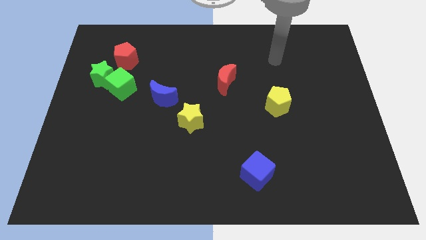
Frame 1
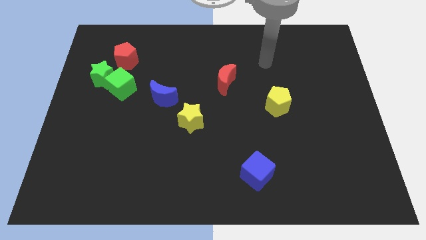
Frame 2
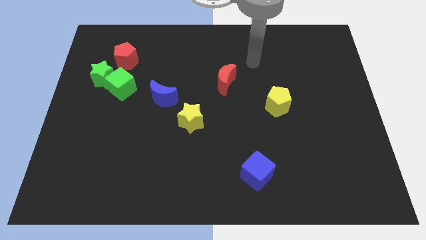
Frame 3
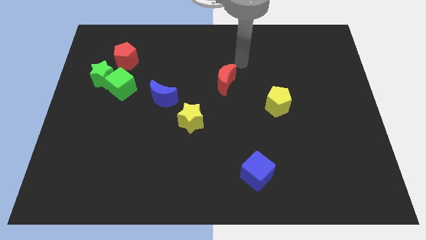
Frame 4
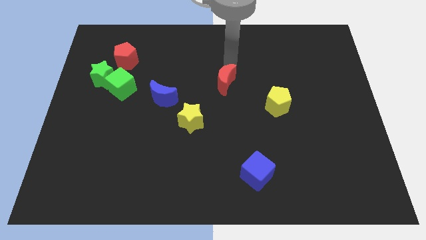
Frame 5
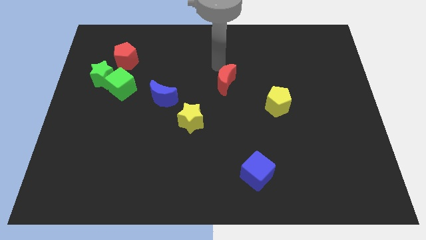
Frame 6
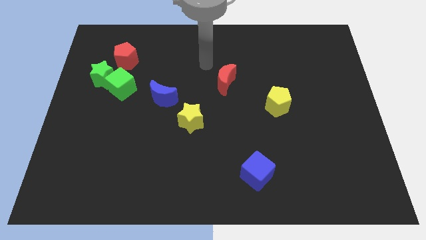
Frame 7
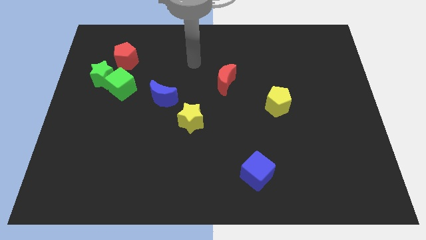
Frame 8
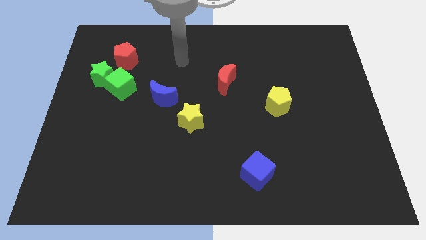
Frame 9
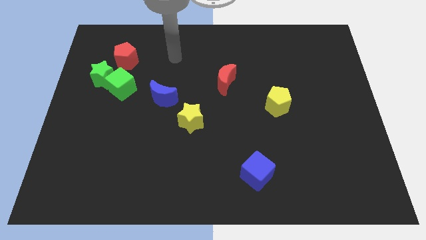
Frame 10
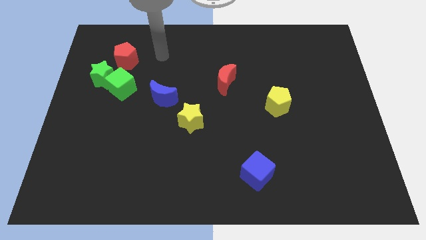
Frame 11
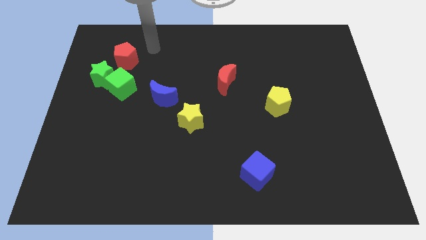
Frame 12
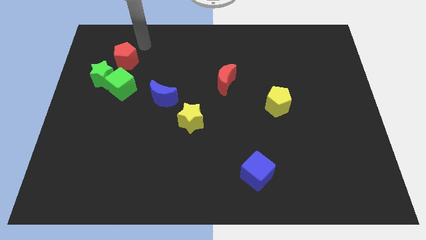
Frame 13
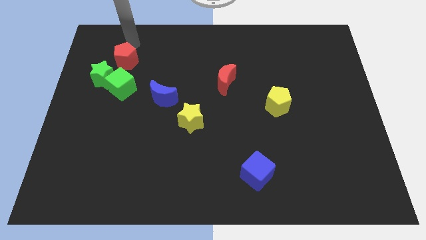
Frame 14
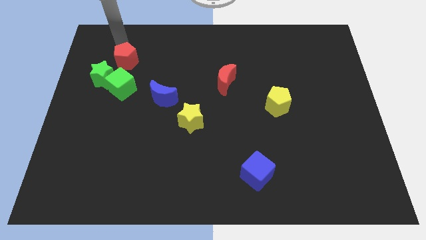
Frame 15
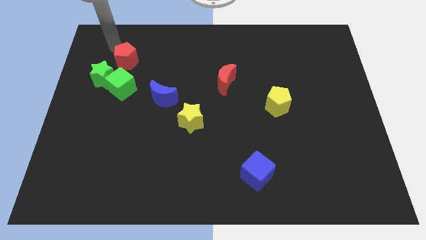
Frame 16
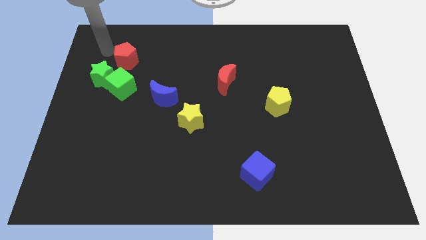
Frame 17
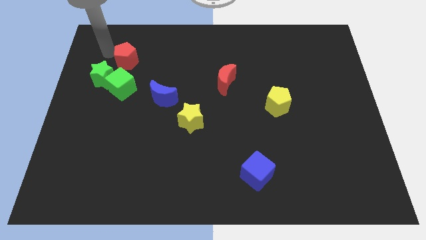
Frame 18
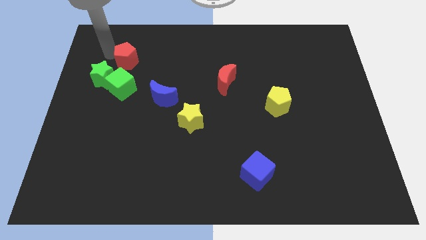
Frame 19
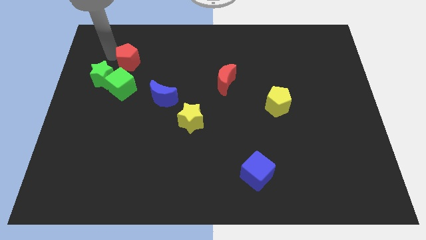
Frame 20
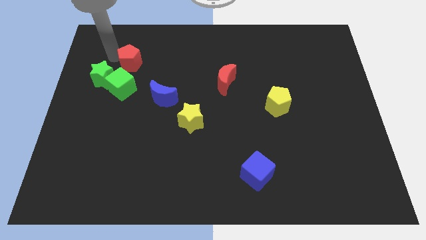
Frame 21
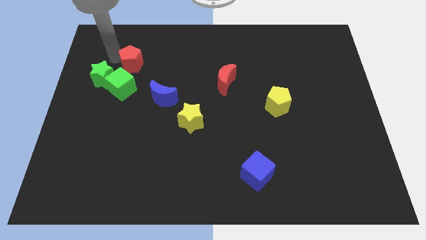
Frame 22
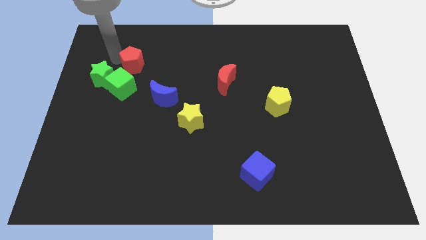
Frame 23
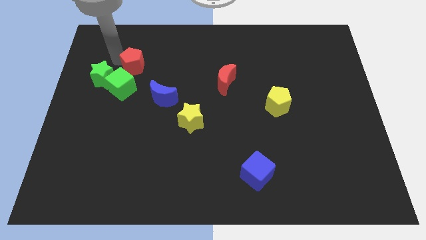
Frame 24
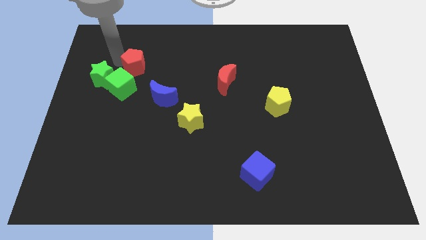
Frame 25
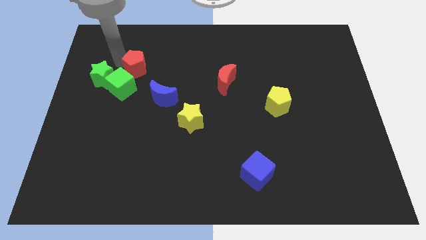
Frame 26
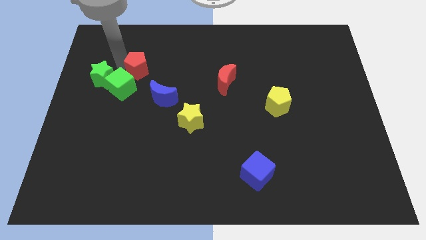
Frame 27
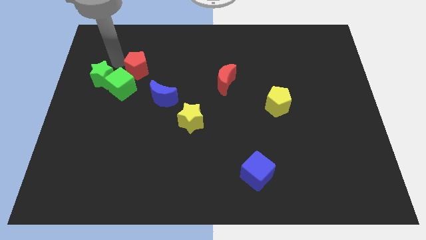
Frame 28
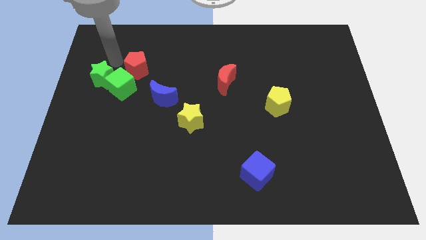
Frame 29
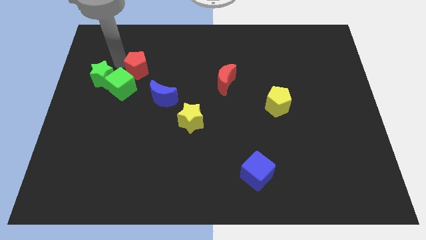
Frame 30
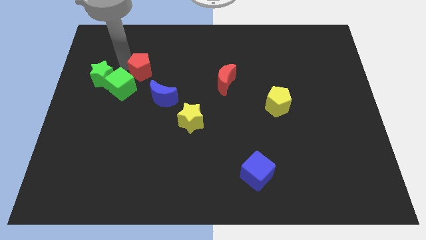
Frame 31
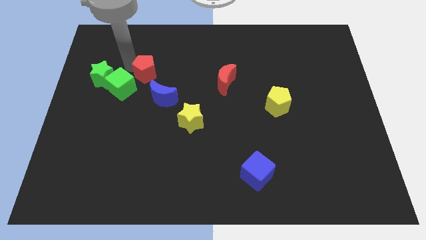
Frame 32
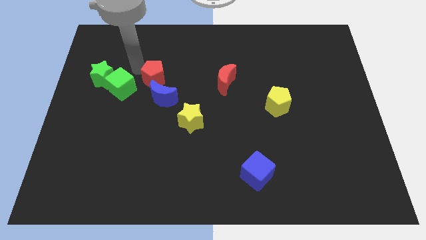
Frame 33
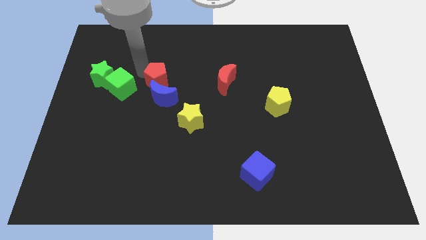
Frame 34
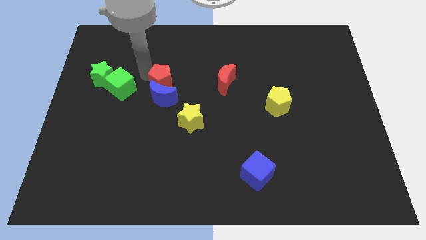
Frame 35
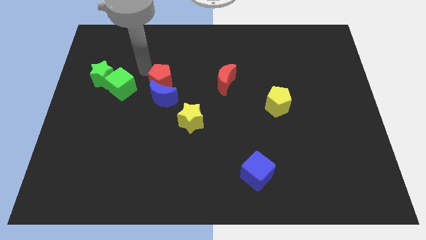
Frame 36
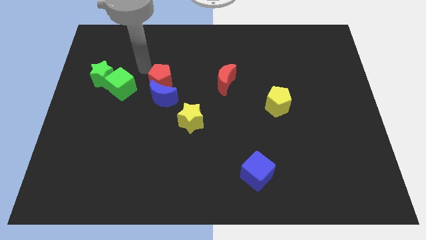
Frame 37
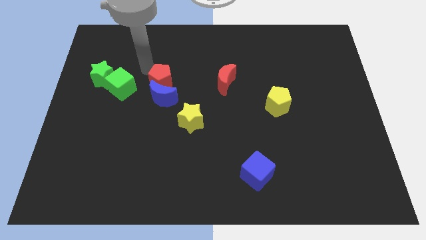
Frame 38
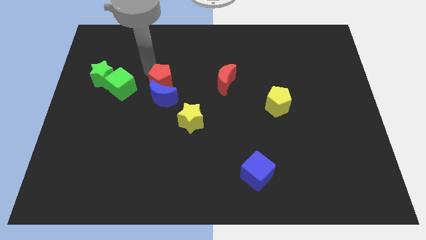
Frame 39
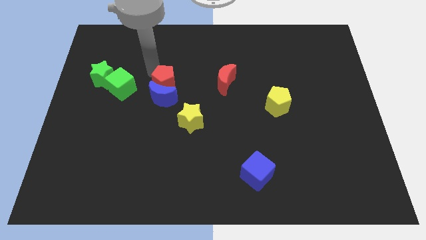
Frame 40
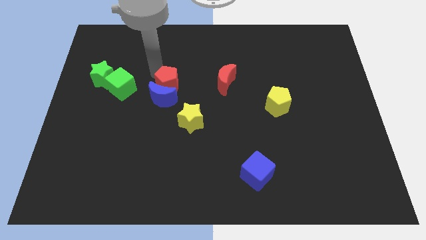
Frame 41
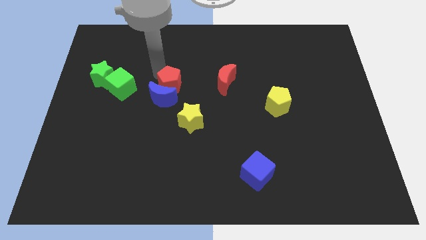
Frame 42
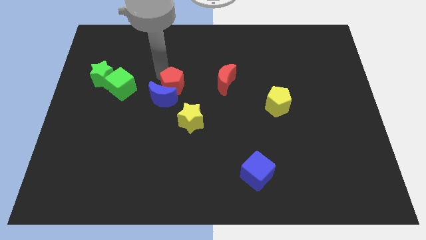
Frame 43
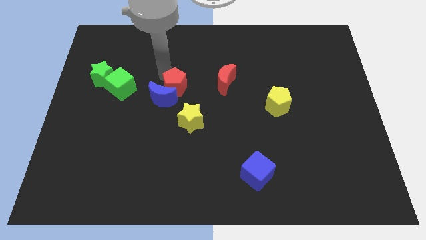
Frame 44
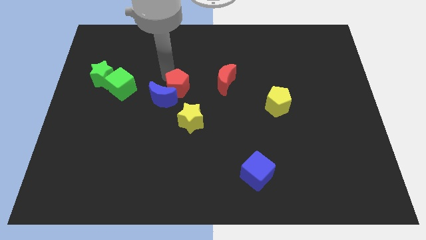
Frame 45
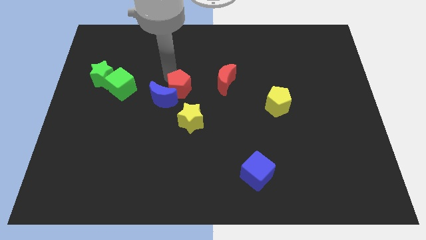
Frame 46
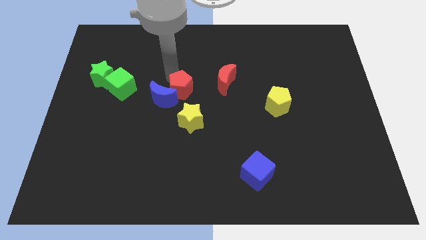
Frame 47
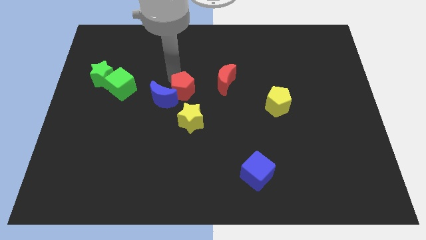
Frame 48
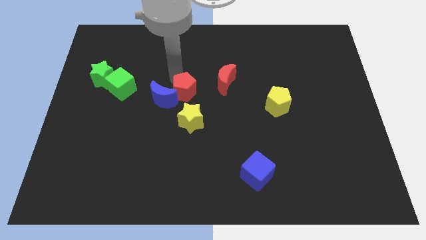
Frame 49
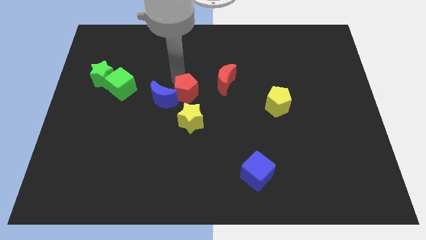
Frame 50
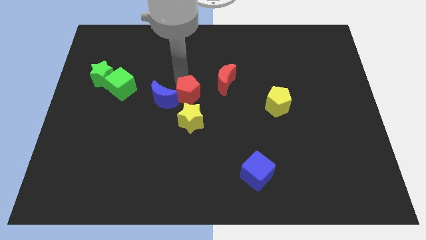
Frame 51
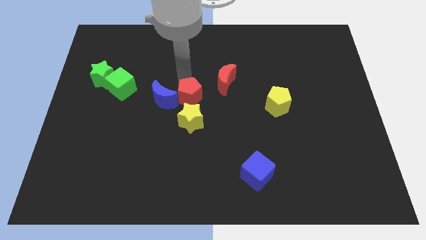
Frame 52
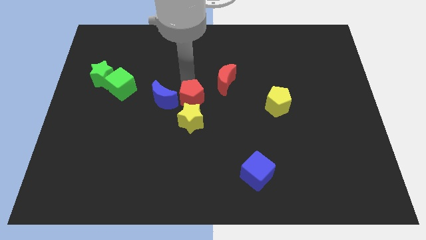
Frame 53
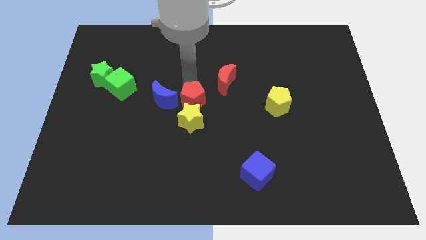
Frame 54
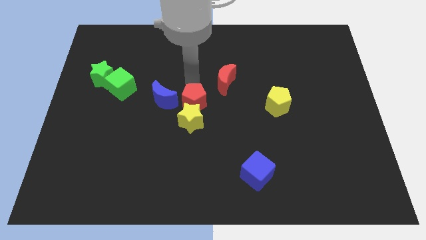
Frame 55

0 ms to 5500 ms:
move the red pentagon next to the yellow star

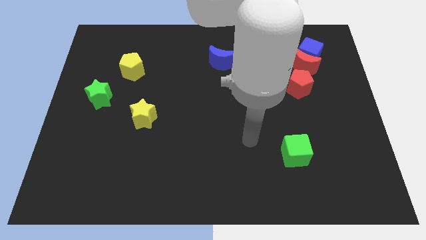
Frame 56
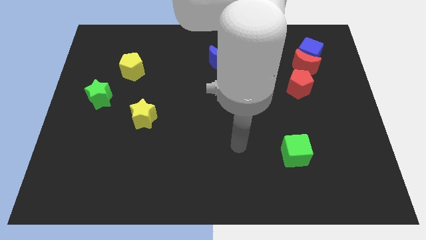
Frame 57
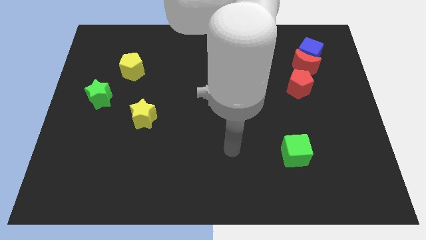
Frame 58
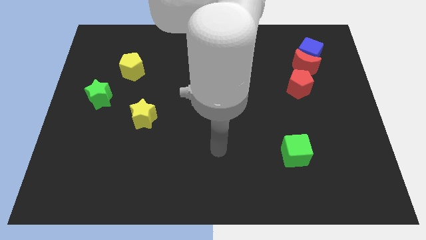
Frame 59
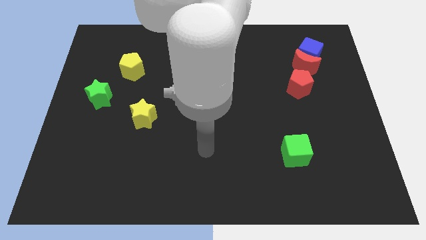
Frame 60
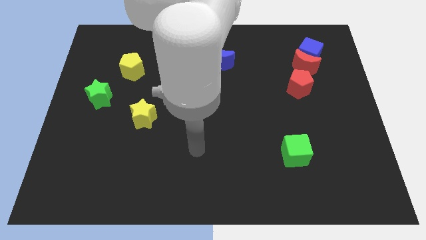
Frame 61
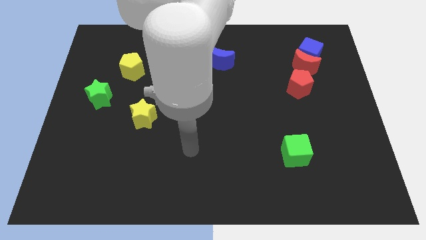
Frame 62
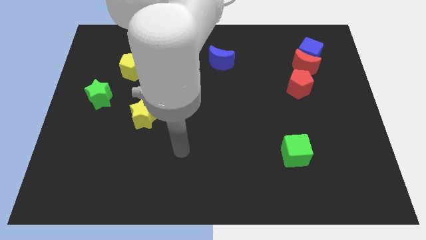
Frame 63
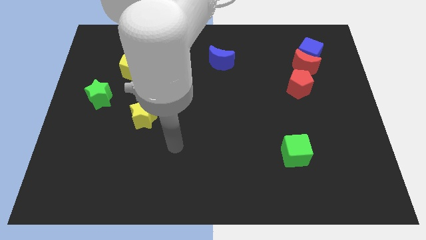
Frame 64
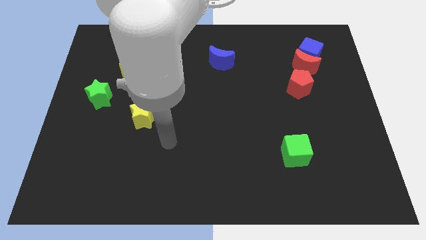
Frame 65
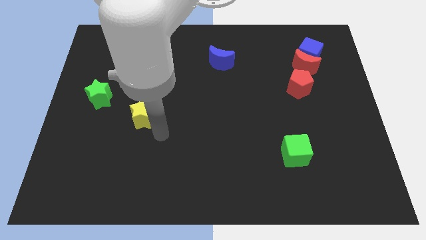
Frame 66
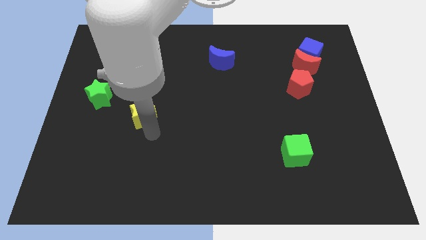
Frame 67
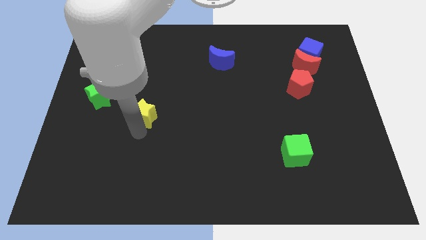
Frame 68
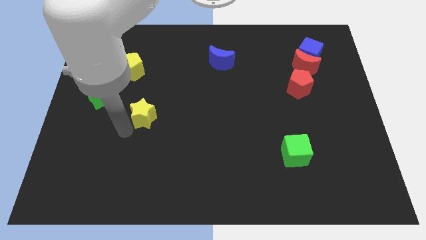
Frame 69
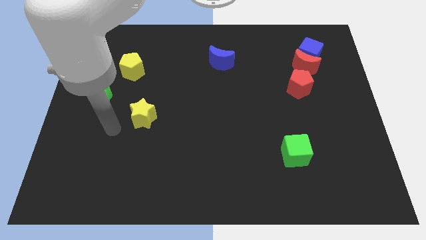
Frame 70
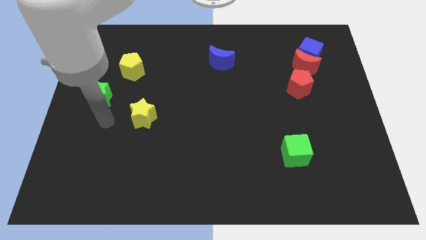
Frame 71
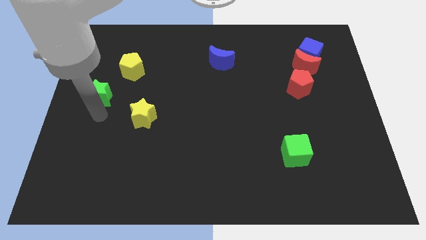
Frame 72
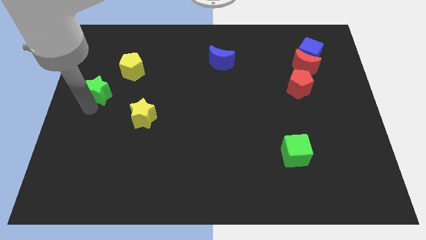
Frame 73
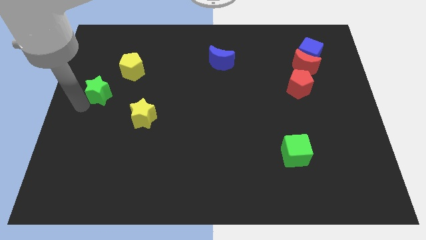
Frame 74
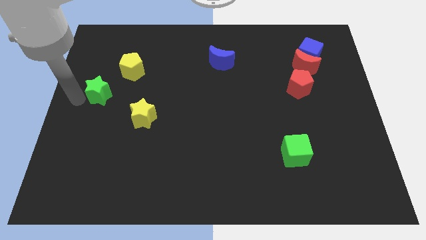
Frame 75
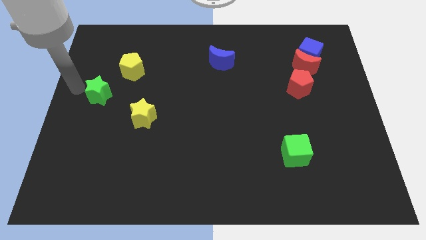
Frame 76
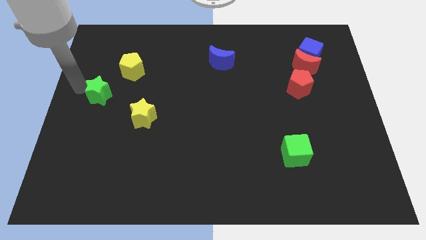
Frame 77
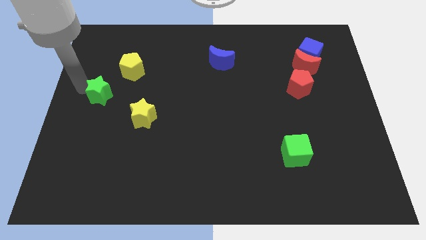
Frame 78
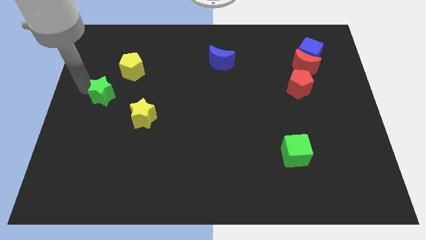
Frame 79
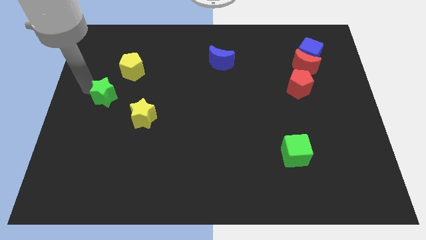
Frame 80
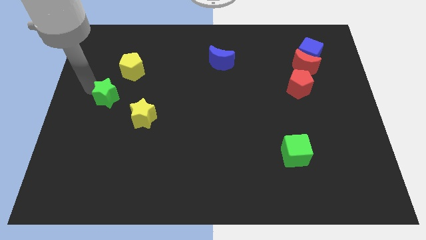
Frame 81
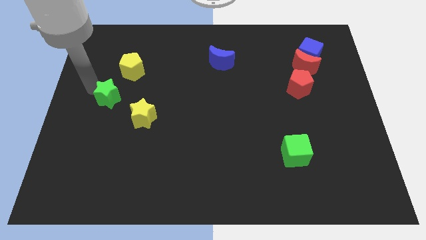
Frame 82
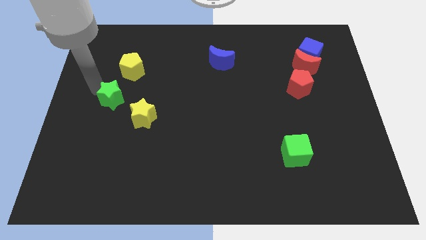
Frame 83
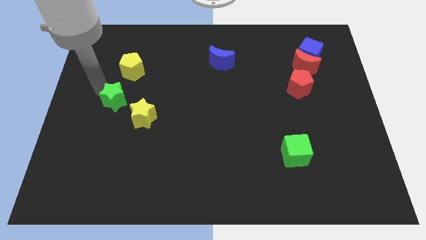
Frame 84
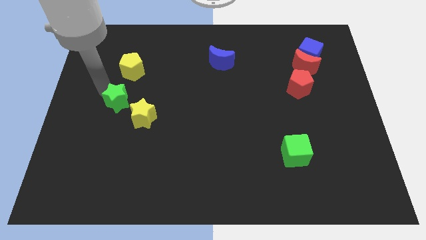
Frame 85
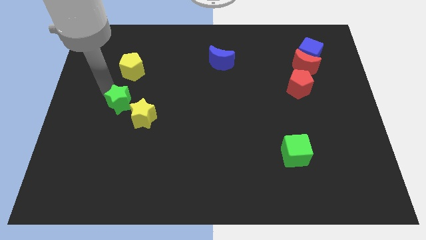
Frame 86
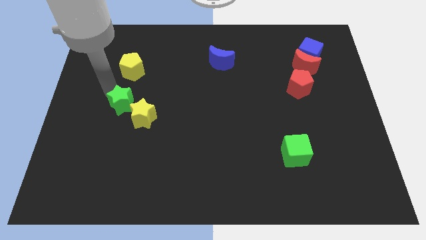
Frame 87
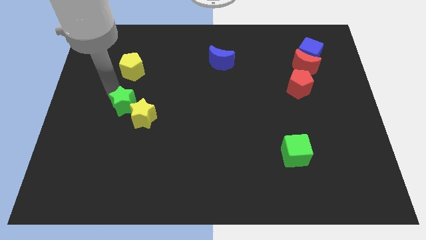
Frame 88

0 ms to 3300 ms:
slide the green star towards the yellow star
